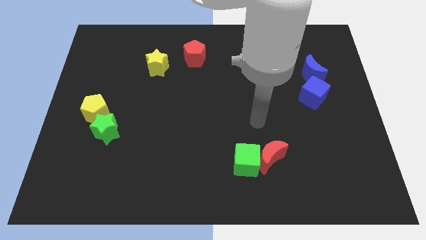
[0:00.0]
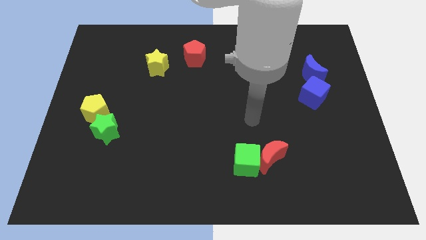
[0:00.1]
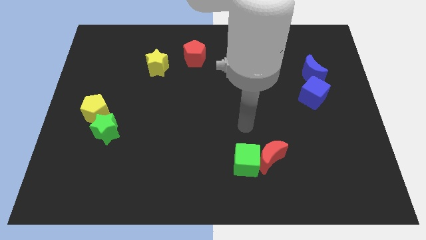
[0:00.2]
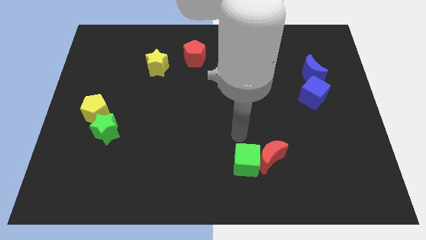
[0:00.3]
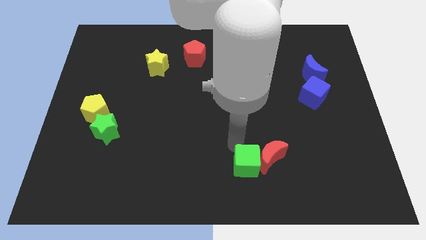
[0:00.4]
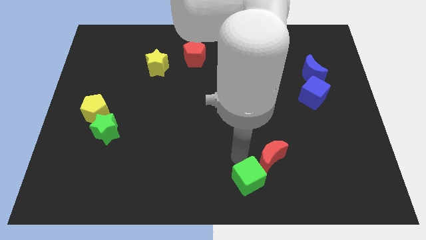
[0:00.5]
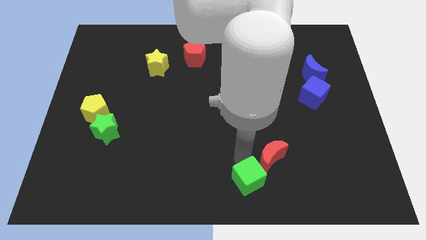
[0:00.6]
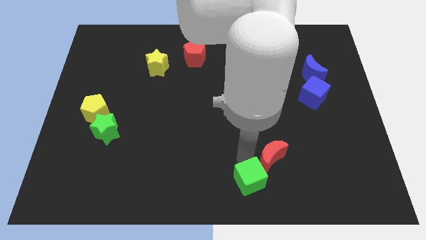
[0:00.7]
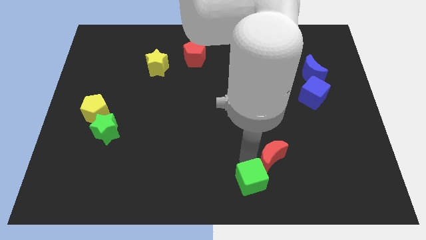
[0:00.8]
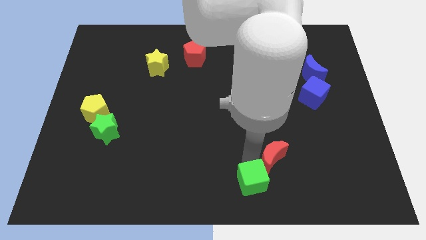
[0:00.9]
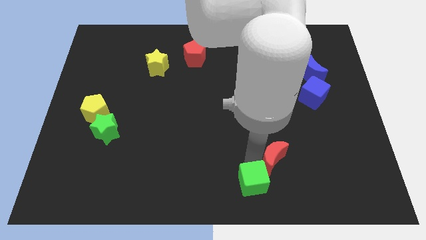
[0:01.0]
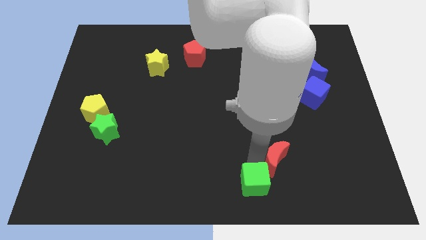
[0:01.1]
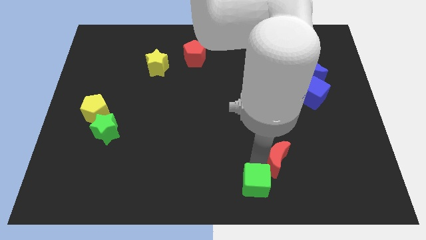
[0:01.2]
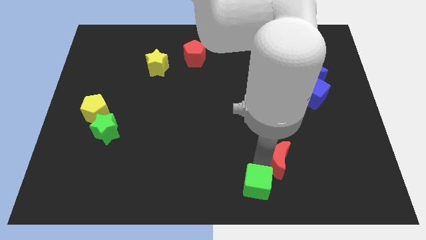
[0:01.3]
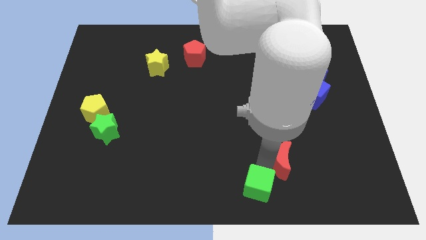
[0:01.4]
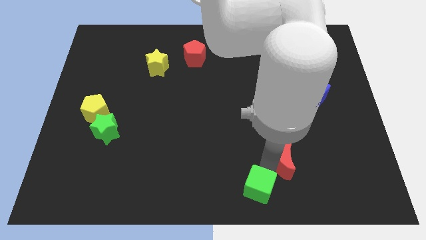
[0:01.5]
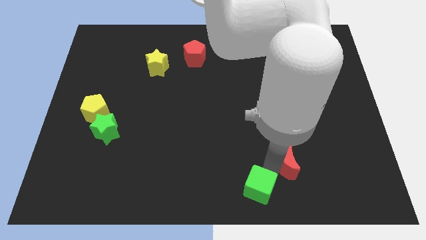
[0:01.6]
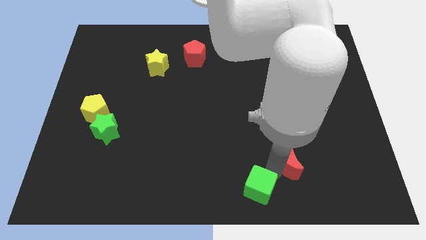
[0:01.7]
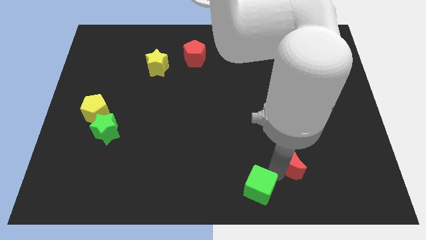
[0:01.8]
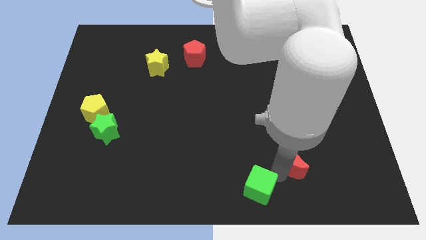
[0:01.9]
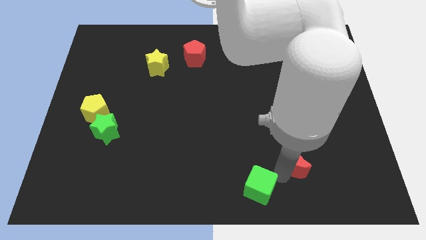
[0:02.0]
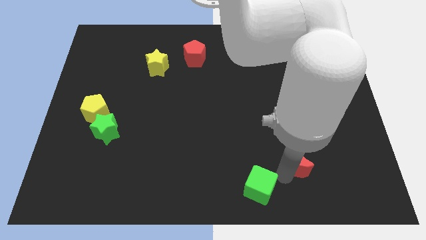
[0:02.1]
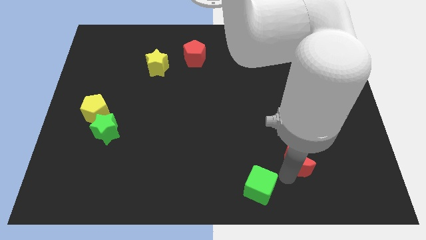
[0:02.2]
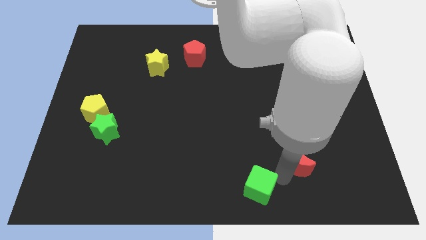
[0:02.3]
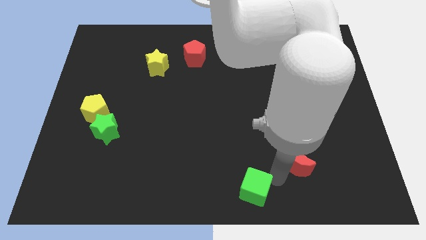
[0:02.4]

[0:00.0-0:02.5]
move the red moon away from the green cube

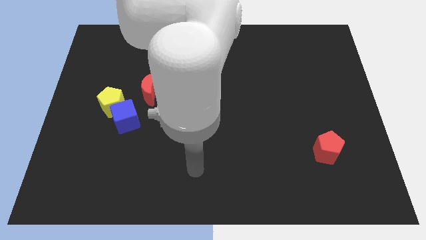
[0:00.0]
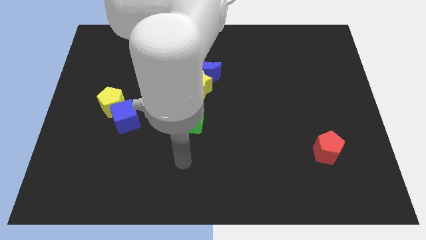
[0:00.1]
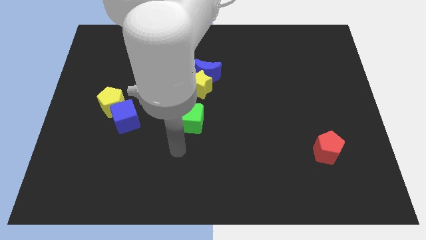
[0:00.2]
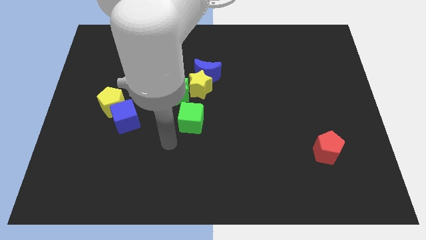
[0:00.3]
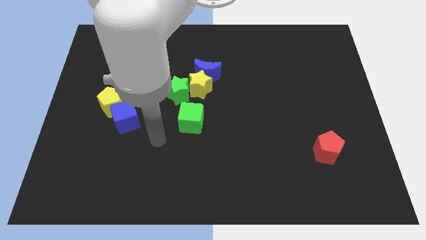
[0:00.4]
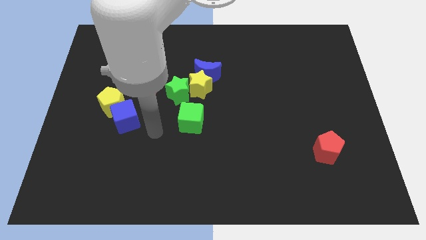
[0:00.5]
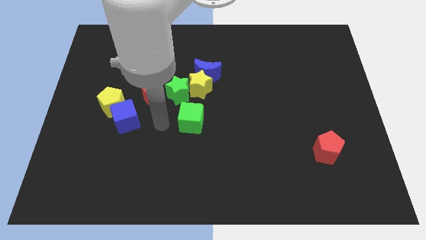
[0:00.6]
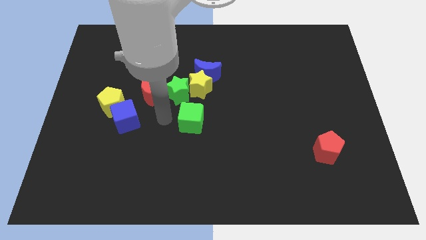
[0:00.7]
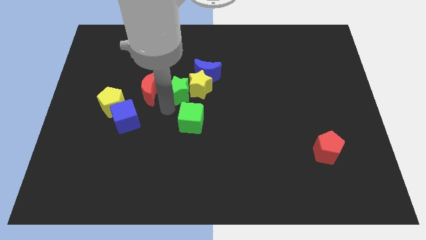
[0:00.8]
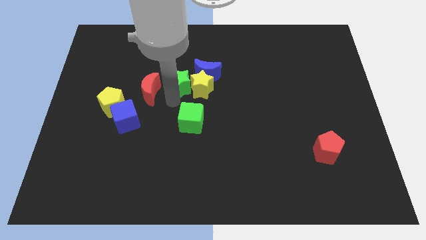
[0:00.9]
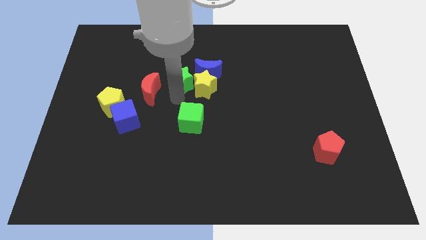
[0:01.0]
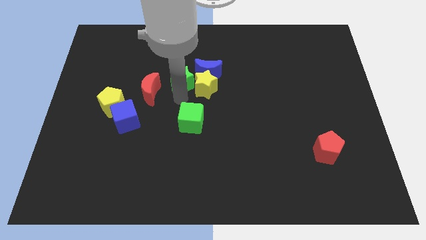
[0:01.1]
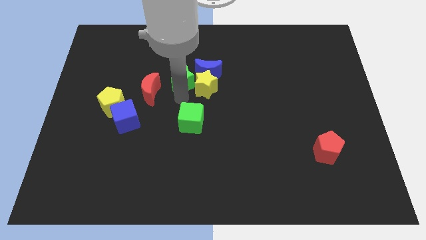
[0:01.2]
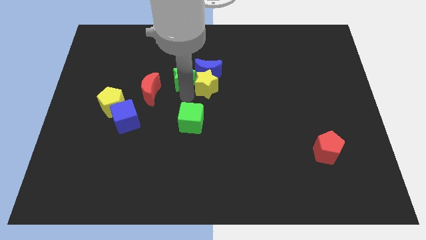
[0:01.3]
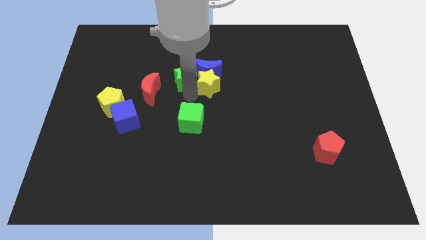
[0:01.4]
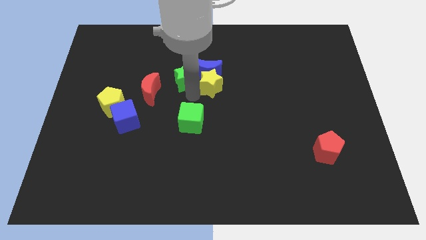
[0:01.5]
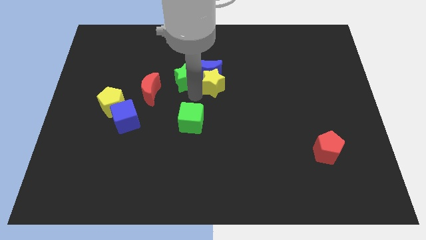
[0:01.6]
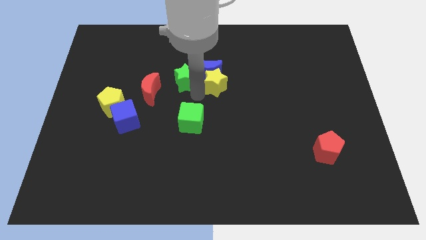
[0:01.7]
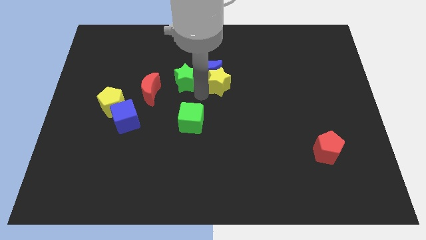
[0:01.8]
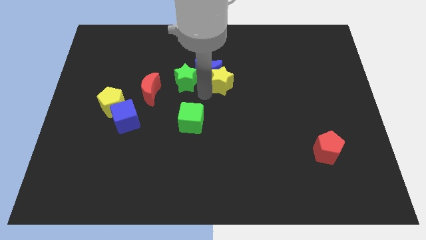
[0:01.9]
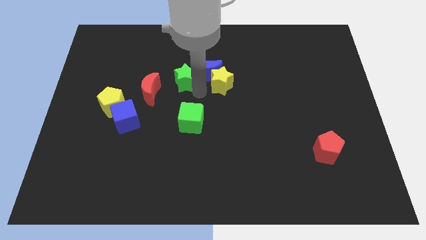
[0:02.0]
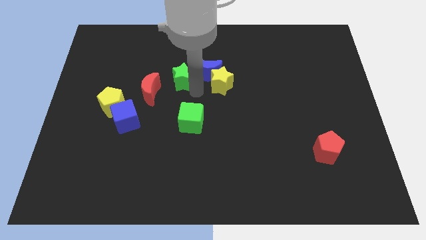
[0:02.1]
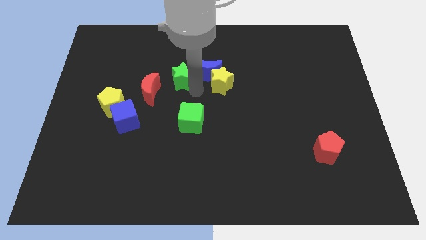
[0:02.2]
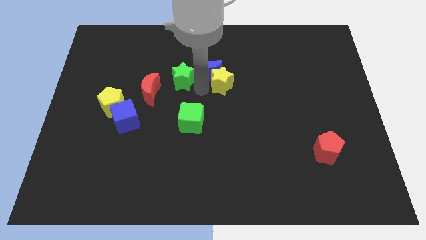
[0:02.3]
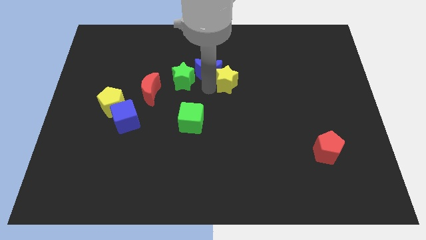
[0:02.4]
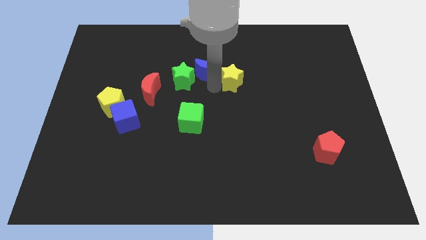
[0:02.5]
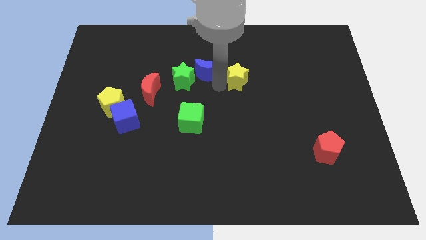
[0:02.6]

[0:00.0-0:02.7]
move the yellow star away from the group of blocks

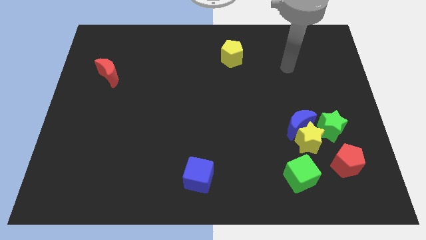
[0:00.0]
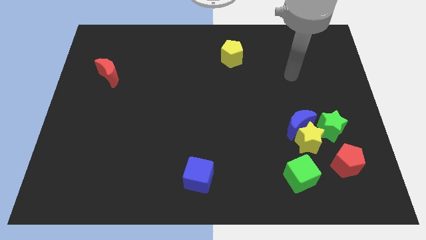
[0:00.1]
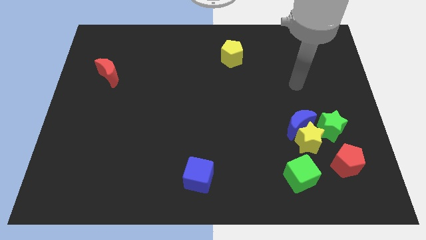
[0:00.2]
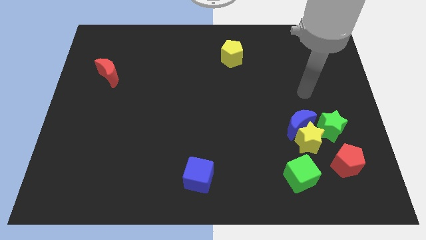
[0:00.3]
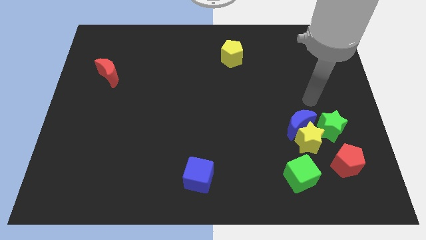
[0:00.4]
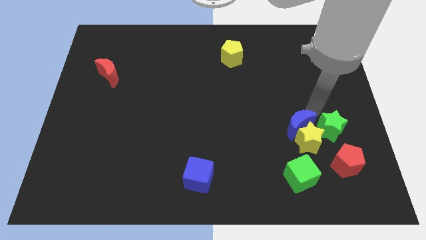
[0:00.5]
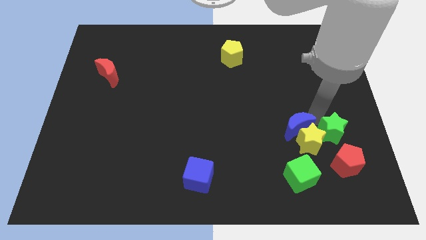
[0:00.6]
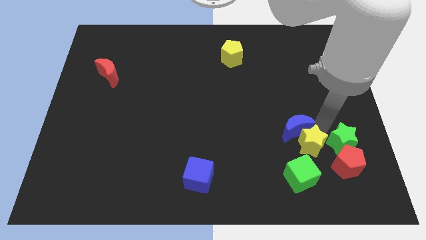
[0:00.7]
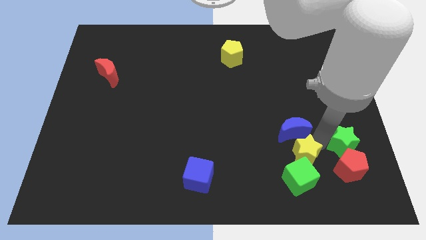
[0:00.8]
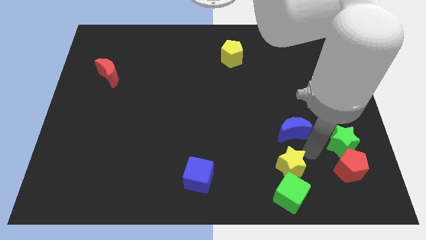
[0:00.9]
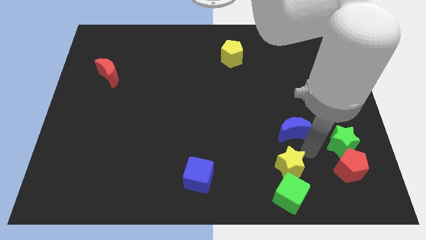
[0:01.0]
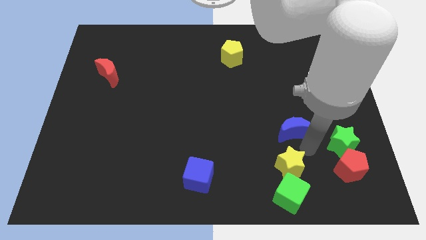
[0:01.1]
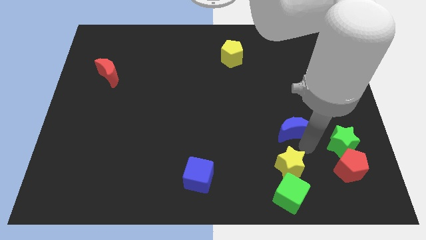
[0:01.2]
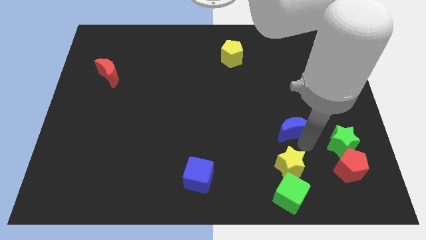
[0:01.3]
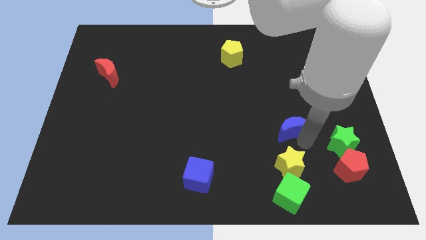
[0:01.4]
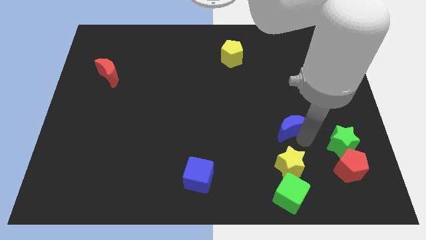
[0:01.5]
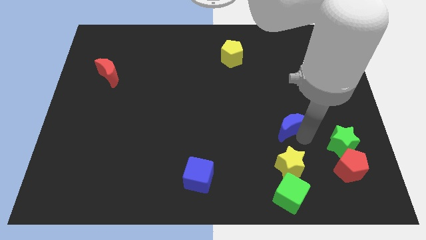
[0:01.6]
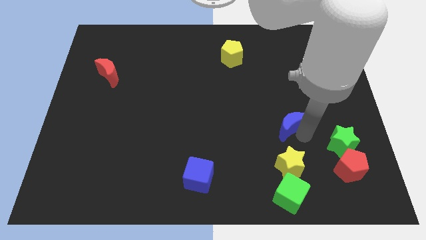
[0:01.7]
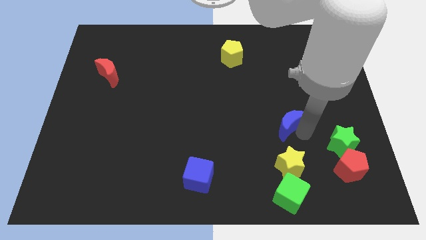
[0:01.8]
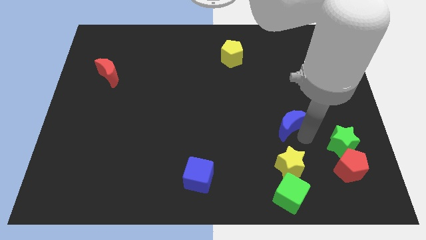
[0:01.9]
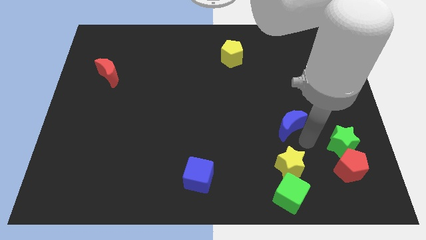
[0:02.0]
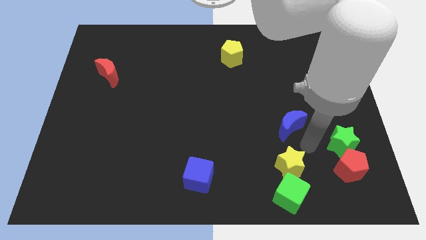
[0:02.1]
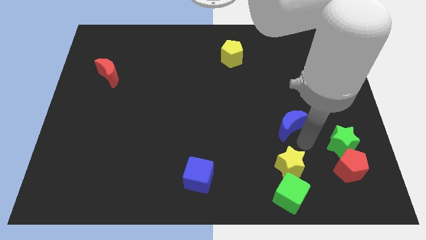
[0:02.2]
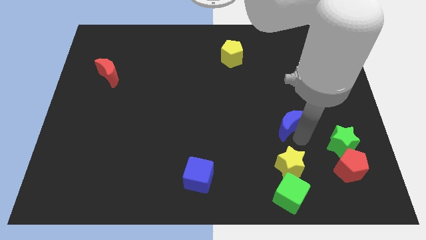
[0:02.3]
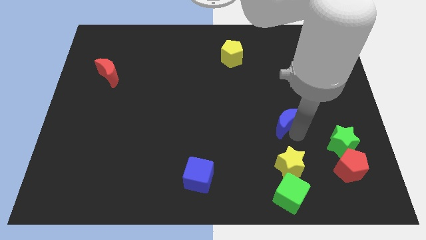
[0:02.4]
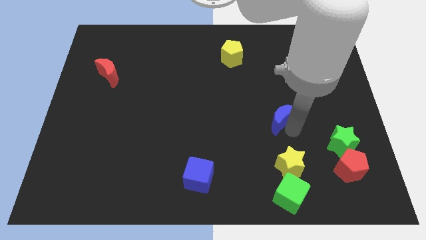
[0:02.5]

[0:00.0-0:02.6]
pull the blue moon apart from the yellow star and green star

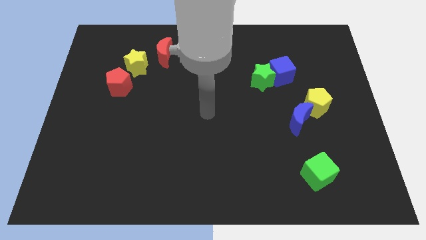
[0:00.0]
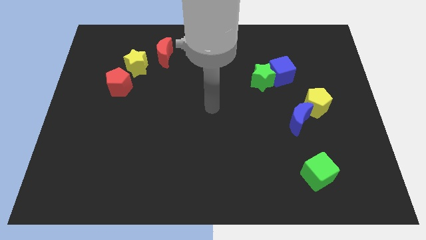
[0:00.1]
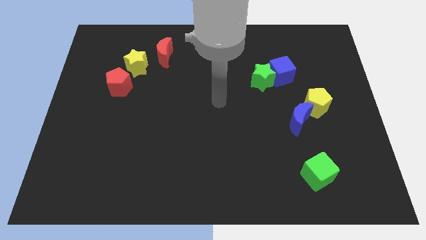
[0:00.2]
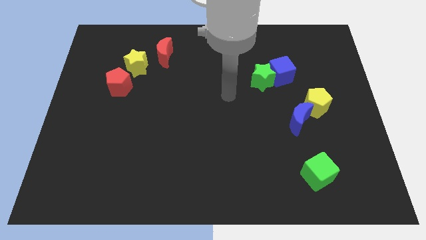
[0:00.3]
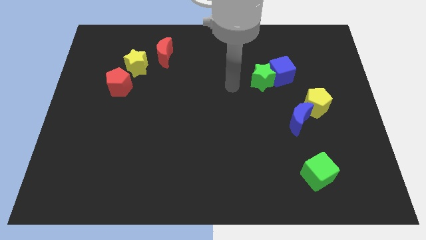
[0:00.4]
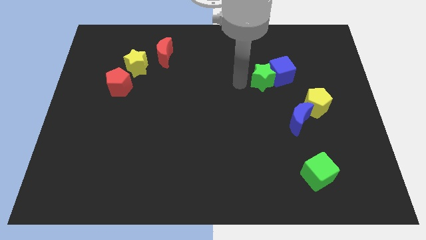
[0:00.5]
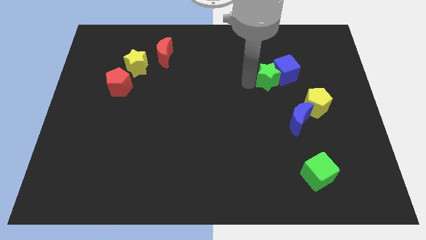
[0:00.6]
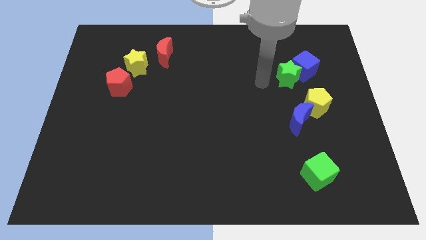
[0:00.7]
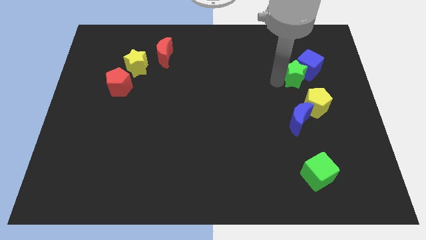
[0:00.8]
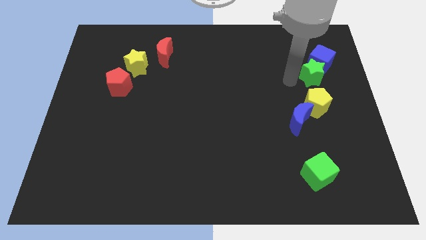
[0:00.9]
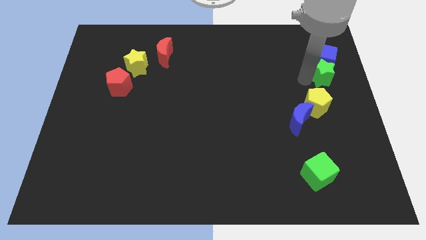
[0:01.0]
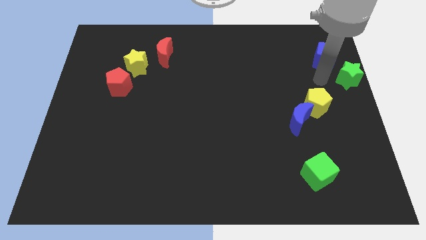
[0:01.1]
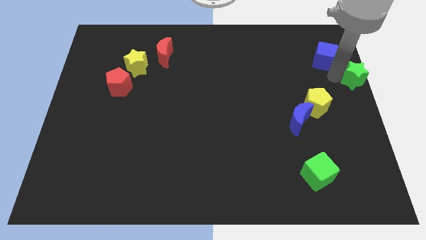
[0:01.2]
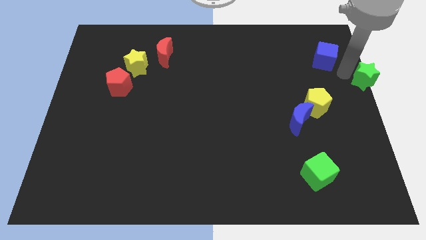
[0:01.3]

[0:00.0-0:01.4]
separate the blue cube from the green star

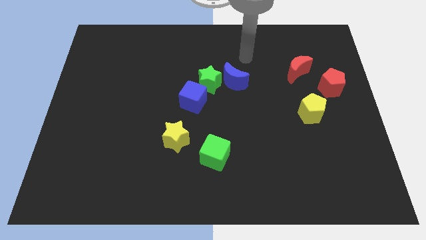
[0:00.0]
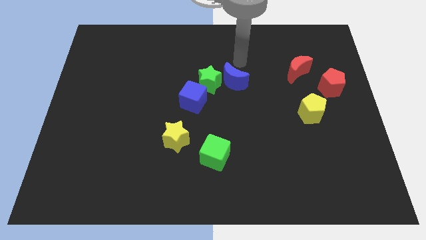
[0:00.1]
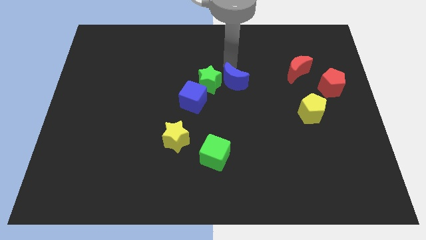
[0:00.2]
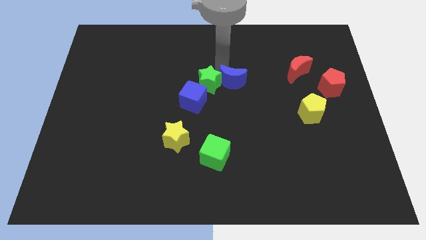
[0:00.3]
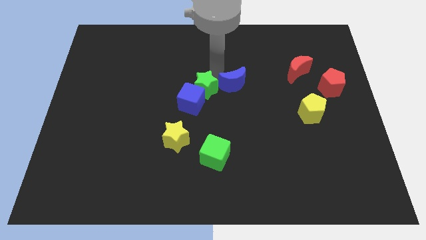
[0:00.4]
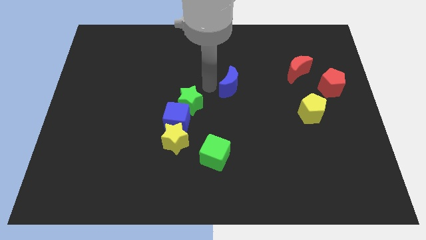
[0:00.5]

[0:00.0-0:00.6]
pull the blue moon apart from the green star
